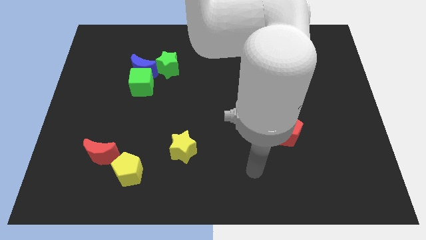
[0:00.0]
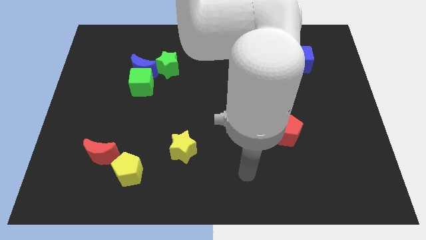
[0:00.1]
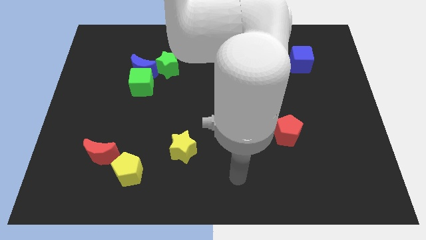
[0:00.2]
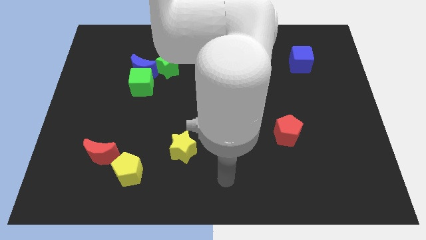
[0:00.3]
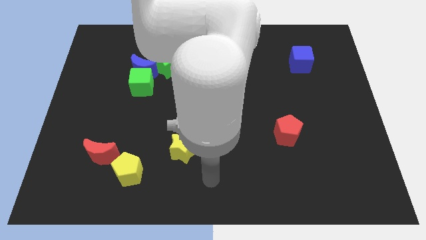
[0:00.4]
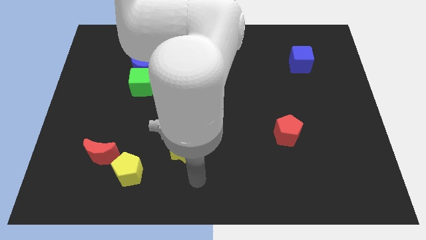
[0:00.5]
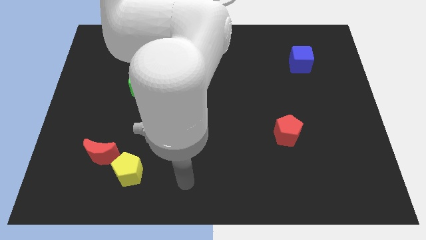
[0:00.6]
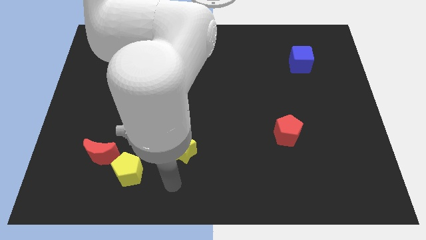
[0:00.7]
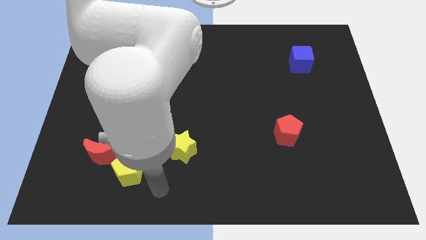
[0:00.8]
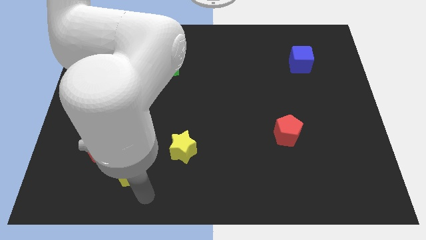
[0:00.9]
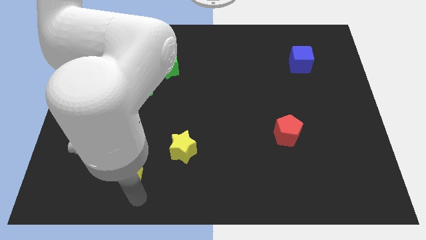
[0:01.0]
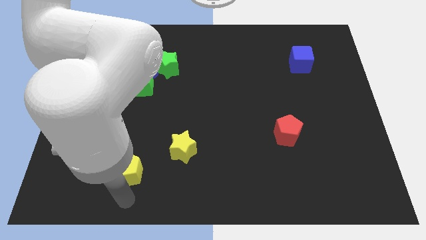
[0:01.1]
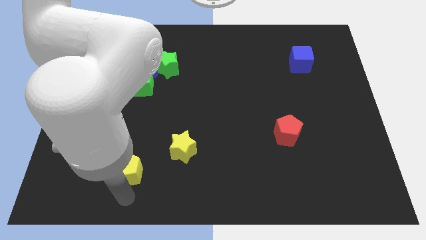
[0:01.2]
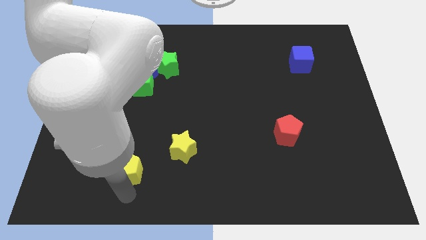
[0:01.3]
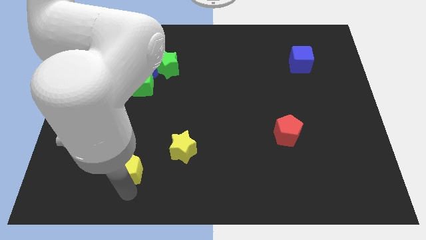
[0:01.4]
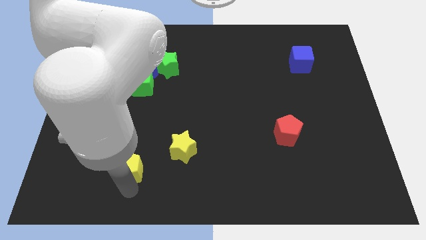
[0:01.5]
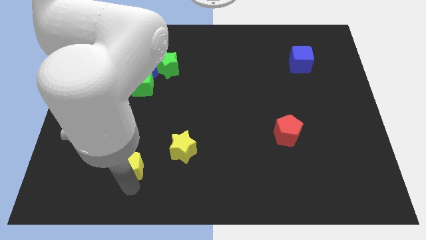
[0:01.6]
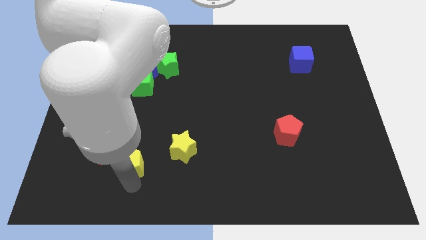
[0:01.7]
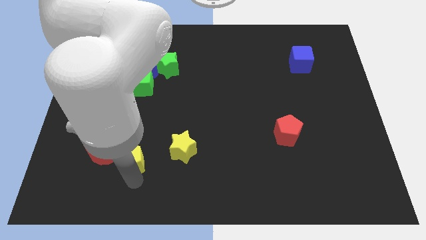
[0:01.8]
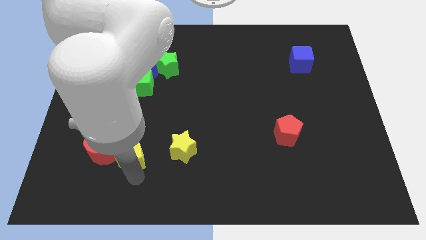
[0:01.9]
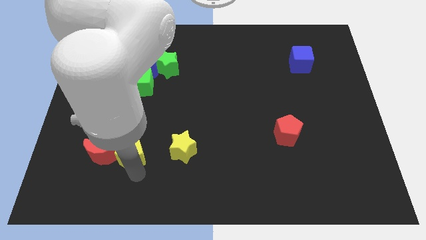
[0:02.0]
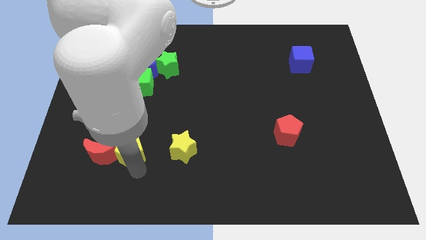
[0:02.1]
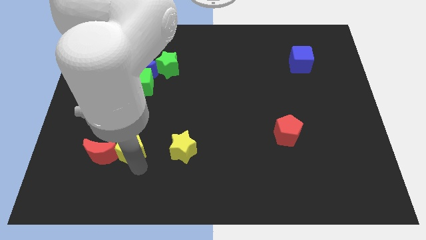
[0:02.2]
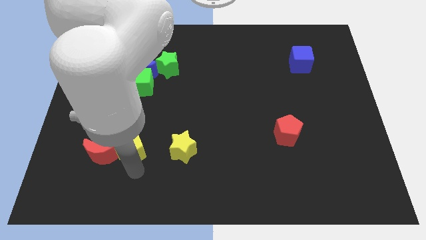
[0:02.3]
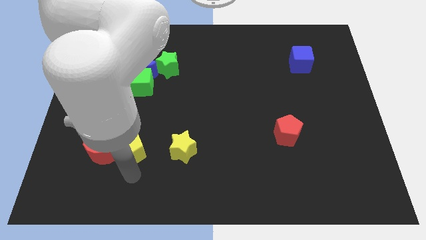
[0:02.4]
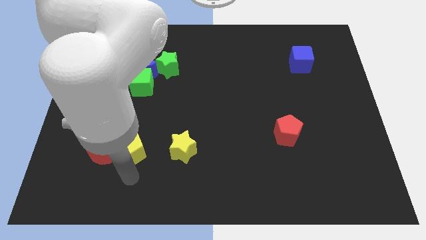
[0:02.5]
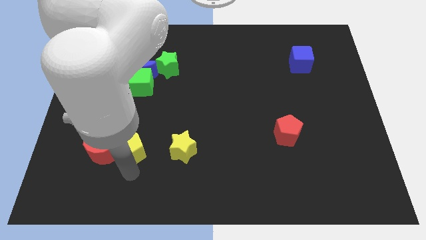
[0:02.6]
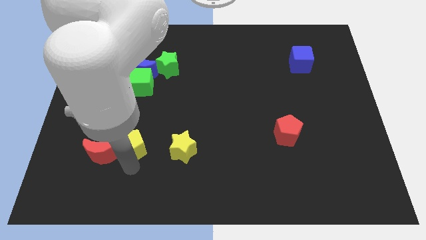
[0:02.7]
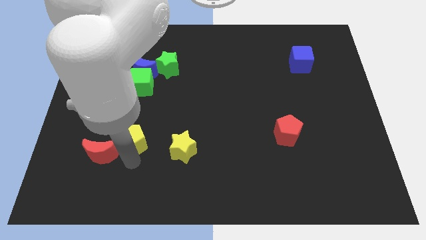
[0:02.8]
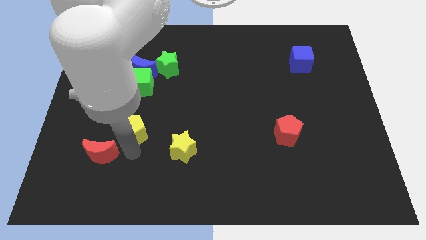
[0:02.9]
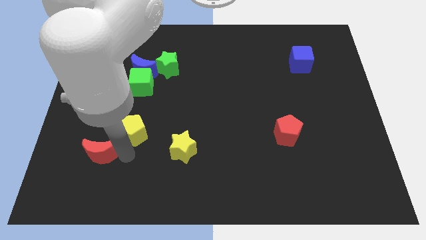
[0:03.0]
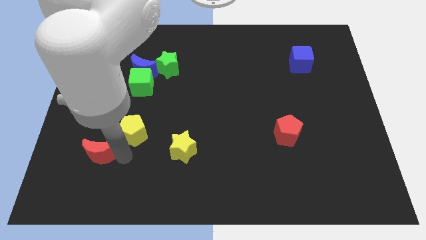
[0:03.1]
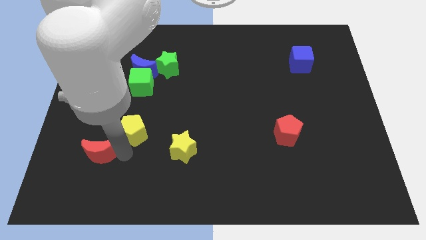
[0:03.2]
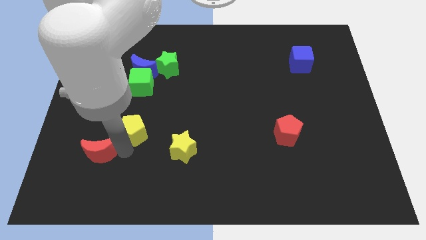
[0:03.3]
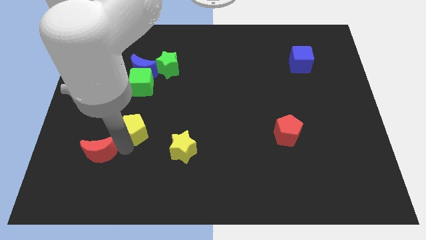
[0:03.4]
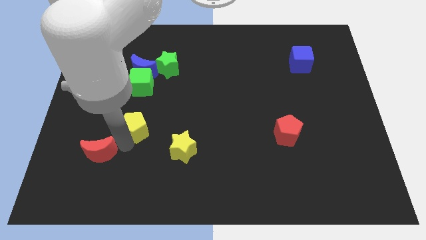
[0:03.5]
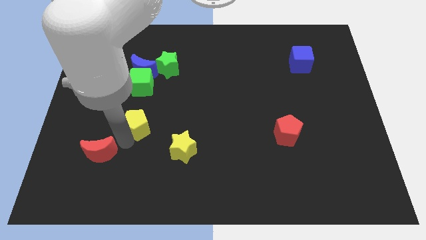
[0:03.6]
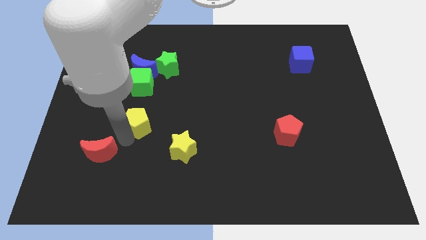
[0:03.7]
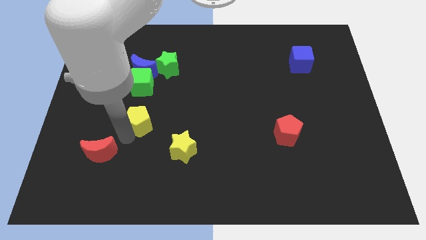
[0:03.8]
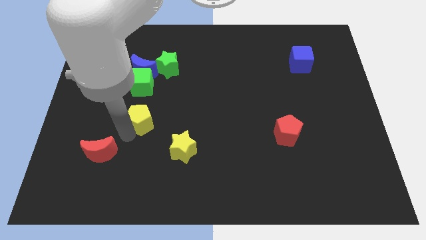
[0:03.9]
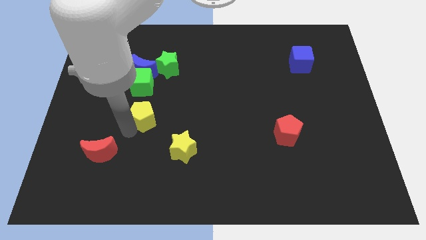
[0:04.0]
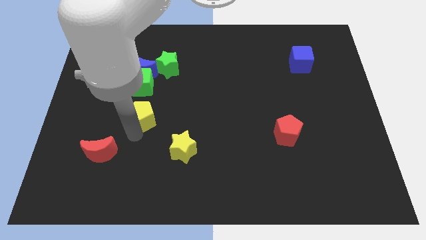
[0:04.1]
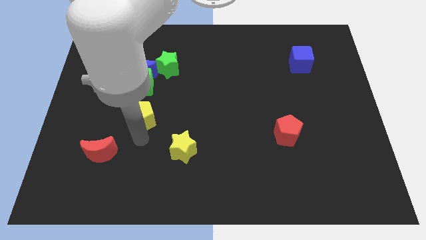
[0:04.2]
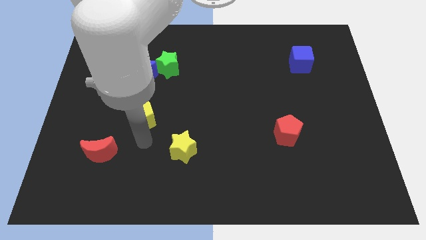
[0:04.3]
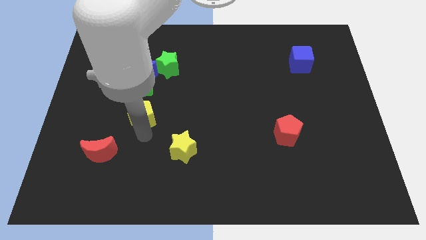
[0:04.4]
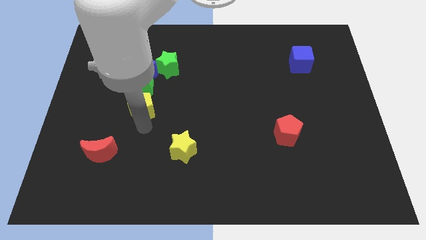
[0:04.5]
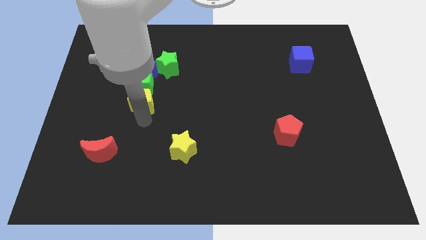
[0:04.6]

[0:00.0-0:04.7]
push the yellow pentagon towards the green cube

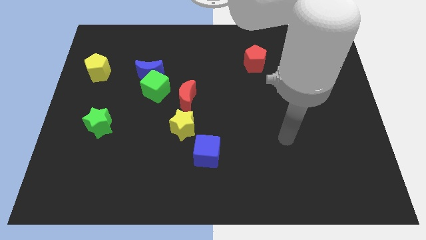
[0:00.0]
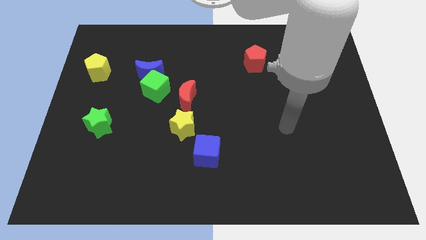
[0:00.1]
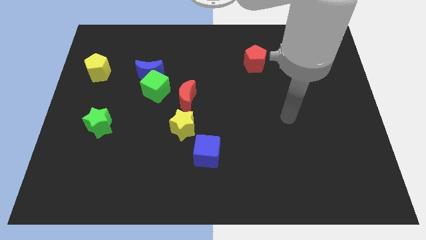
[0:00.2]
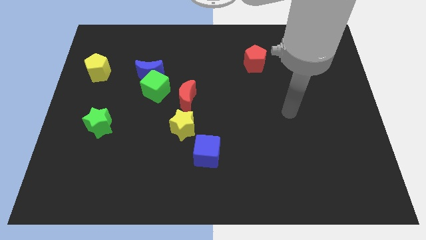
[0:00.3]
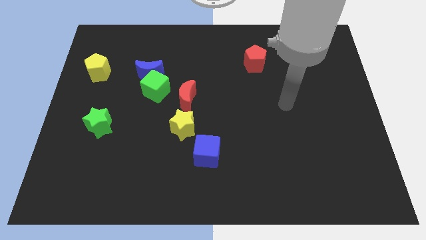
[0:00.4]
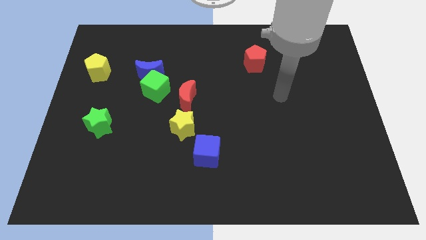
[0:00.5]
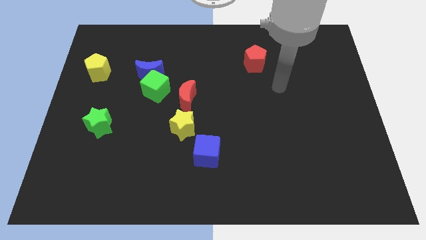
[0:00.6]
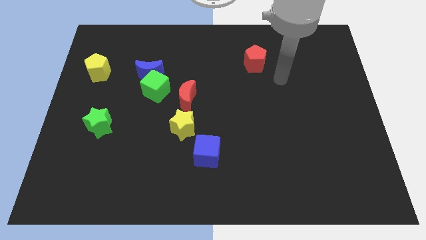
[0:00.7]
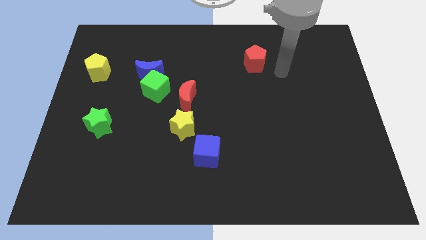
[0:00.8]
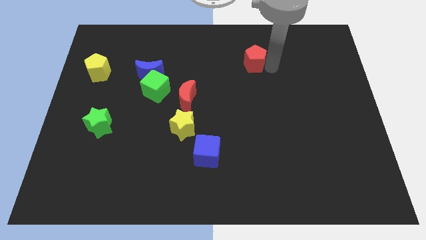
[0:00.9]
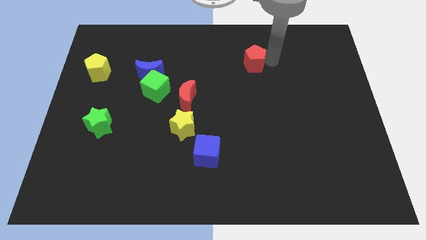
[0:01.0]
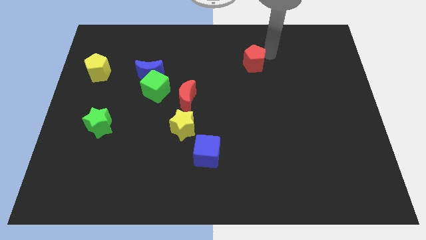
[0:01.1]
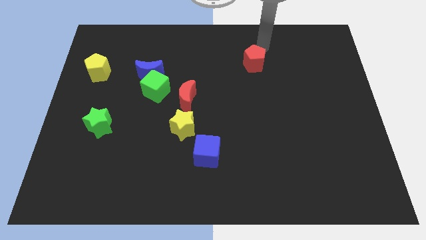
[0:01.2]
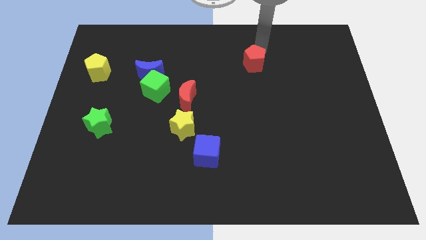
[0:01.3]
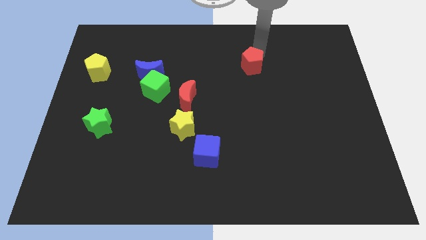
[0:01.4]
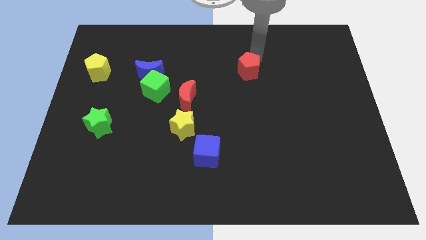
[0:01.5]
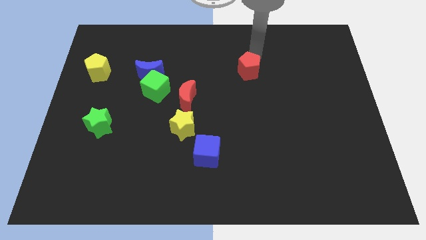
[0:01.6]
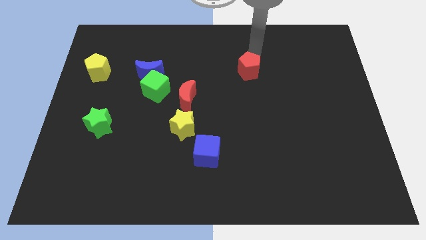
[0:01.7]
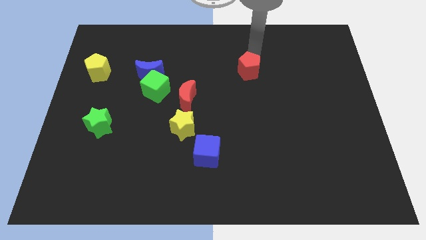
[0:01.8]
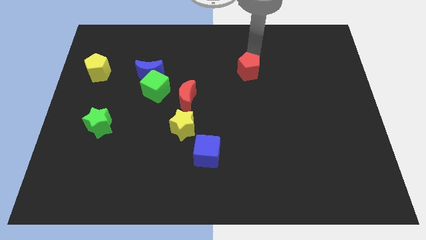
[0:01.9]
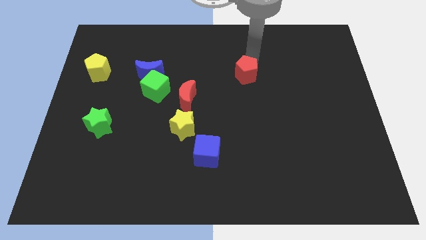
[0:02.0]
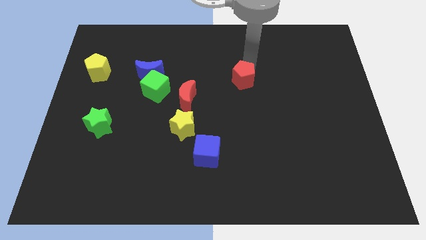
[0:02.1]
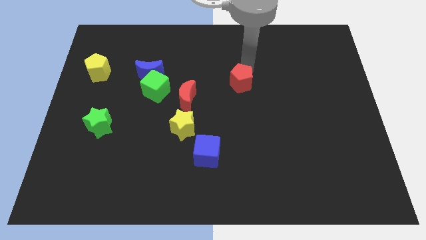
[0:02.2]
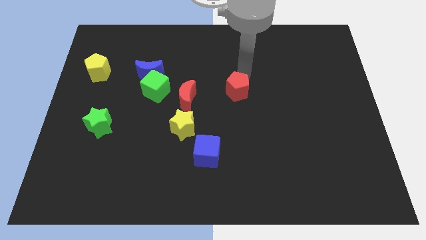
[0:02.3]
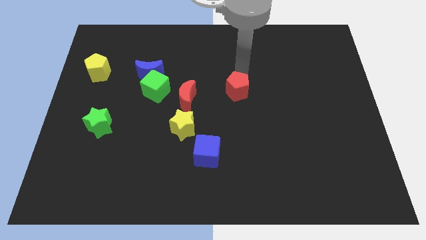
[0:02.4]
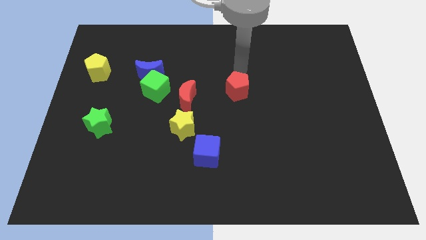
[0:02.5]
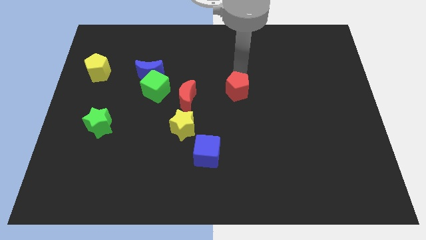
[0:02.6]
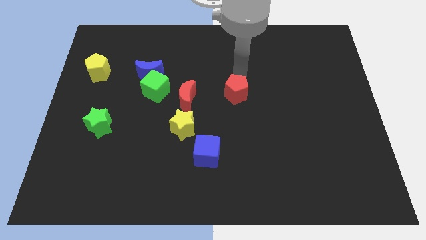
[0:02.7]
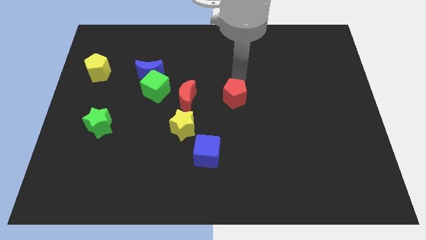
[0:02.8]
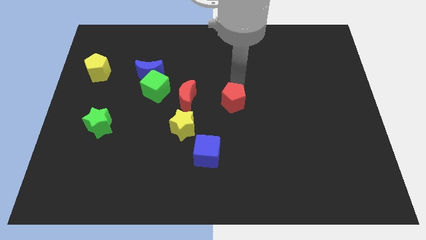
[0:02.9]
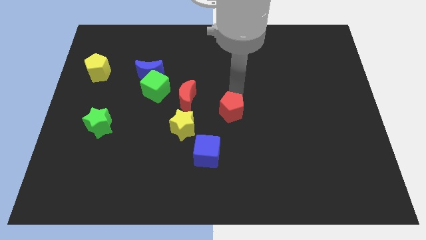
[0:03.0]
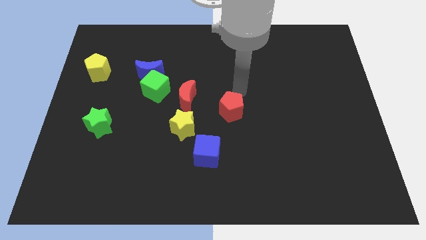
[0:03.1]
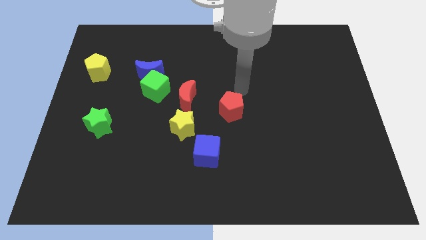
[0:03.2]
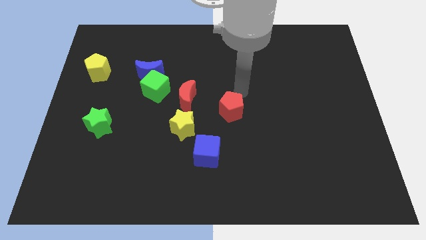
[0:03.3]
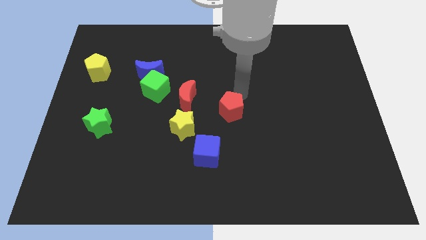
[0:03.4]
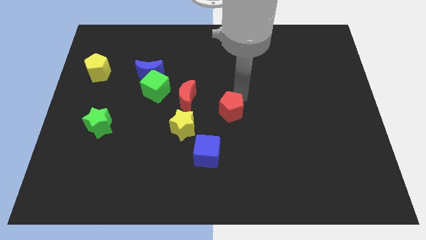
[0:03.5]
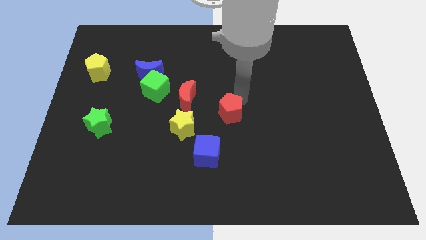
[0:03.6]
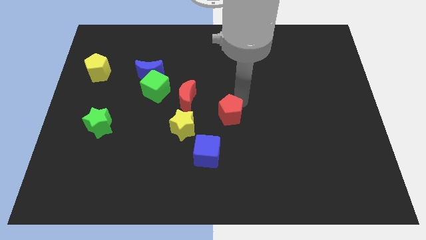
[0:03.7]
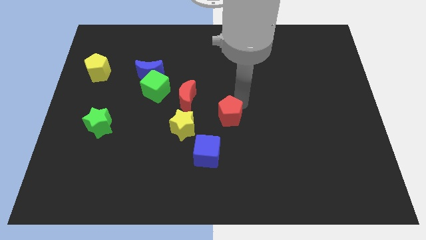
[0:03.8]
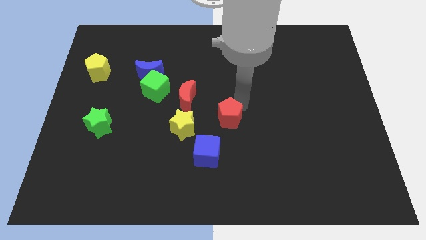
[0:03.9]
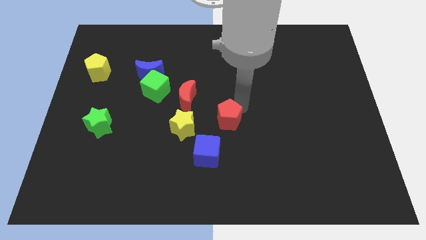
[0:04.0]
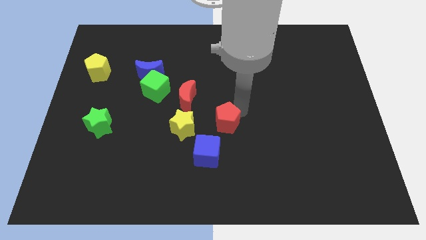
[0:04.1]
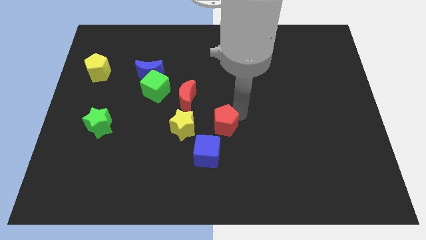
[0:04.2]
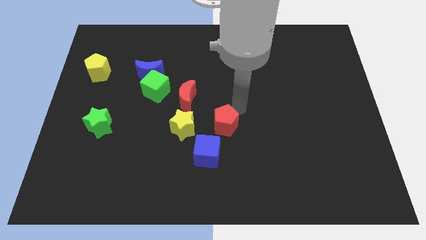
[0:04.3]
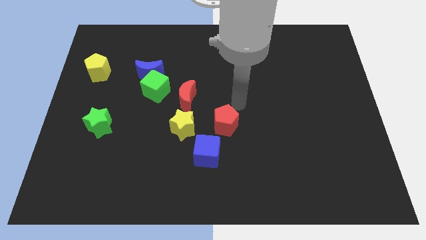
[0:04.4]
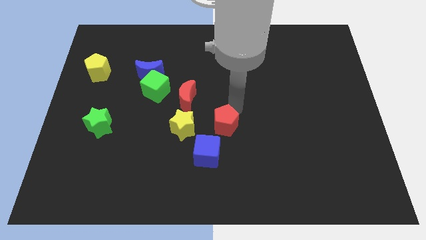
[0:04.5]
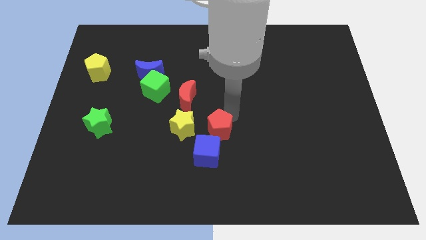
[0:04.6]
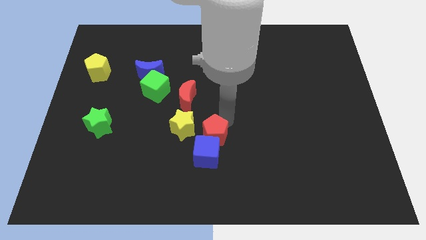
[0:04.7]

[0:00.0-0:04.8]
put the red pentagon towards the blue cube
